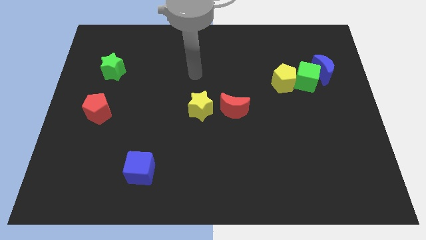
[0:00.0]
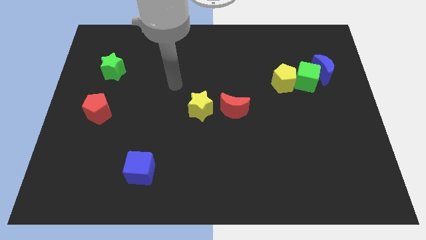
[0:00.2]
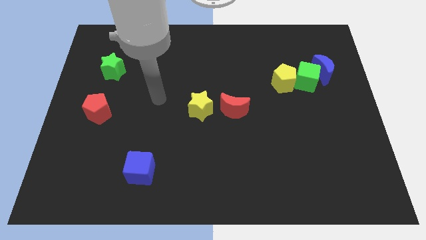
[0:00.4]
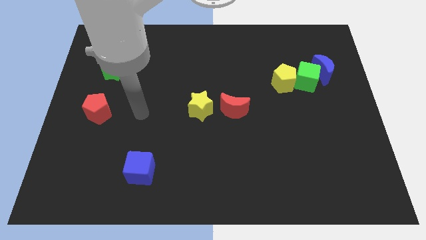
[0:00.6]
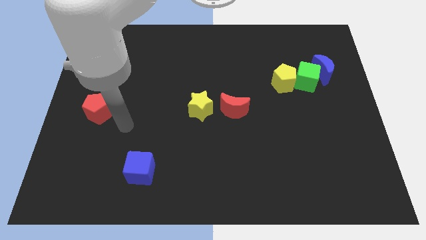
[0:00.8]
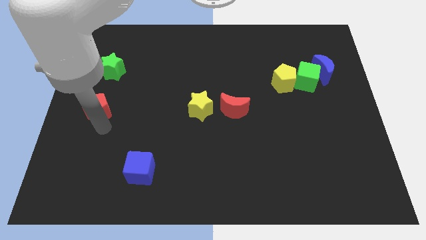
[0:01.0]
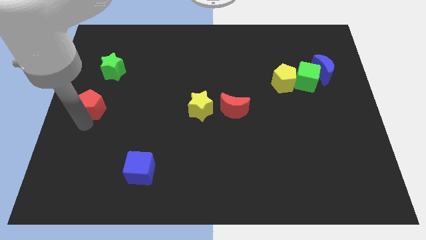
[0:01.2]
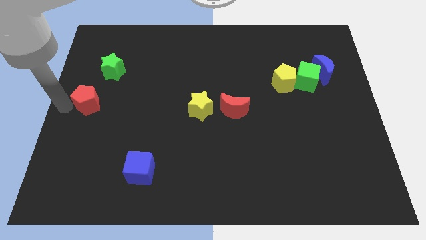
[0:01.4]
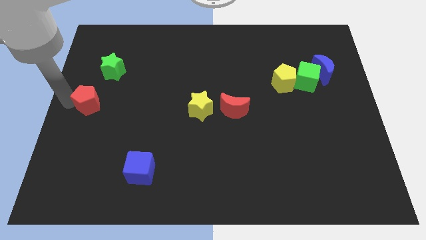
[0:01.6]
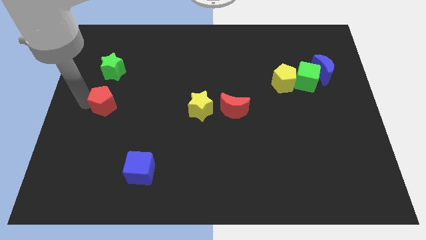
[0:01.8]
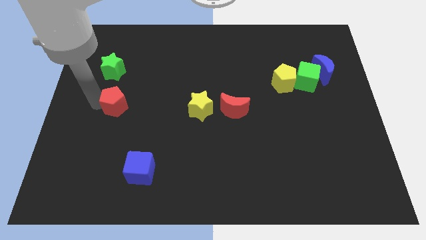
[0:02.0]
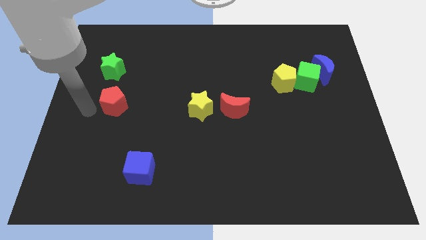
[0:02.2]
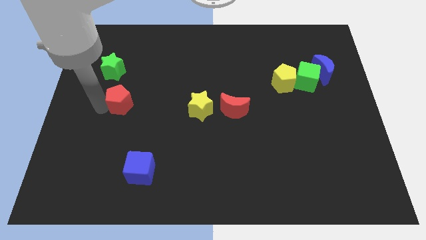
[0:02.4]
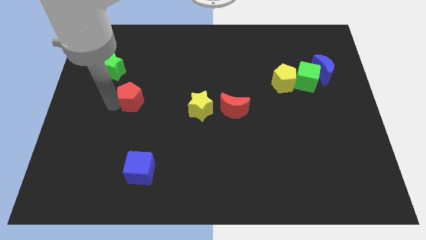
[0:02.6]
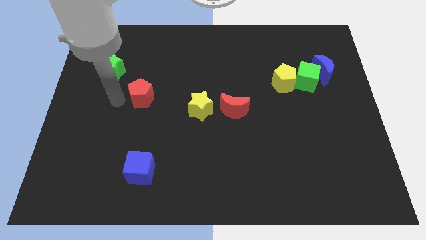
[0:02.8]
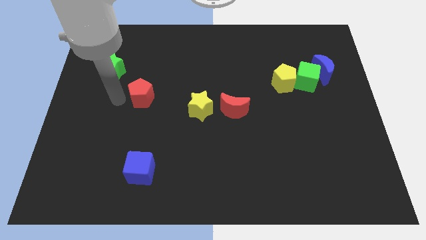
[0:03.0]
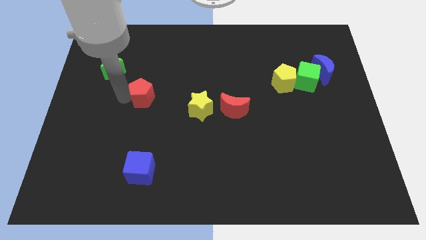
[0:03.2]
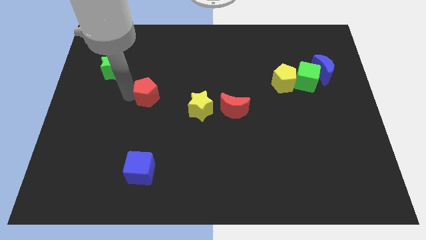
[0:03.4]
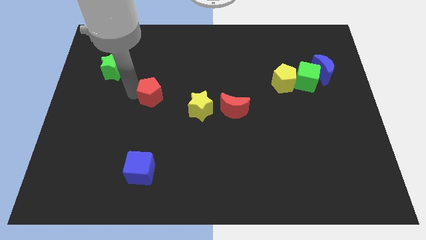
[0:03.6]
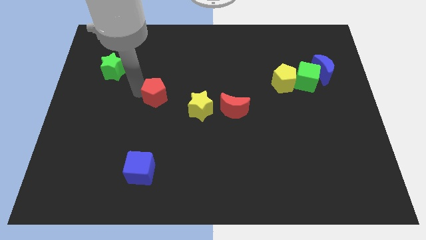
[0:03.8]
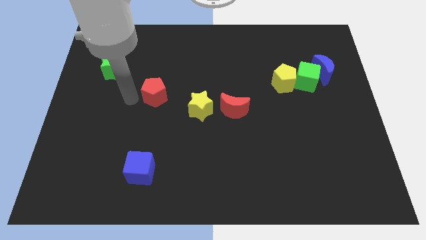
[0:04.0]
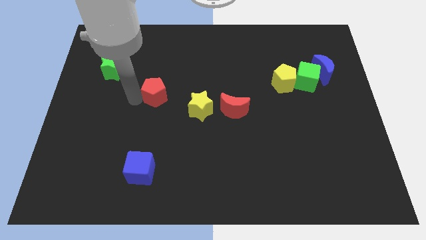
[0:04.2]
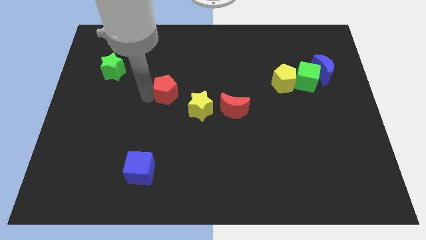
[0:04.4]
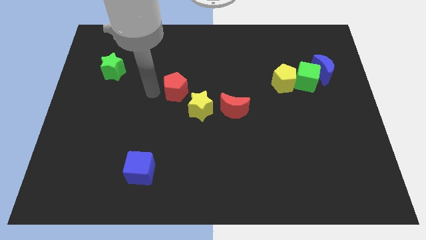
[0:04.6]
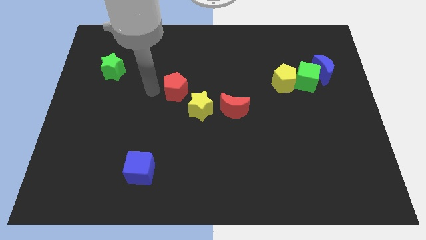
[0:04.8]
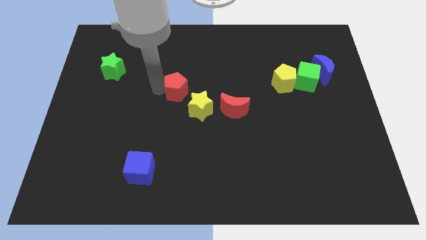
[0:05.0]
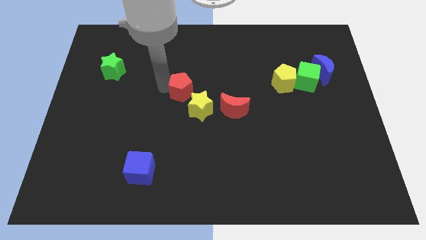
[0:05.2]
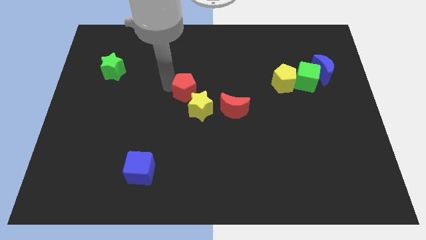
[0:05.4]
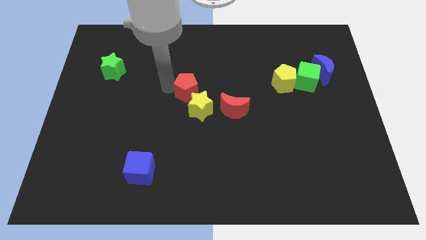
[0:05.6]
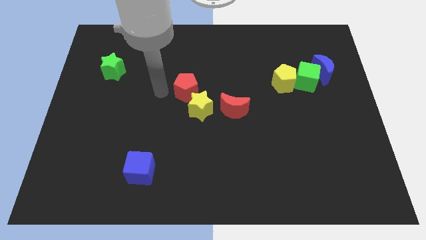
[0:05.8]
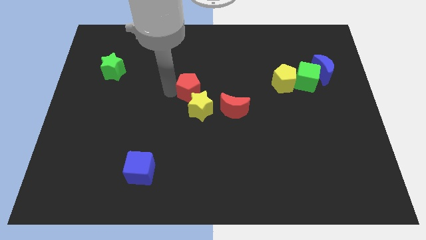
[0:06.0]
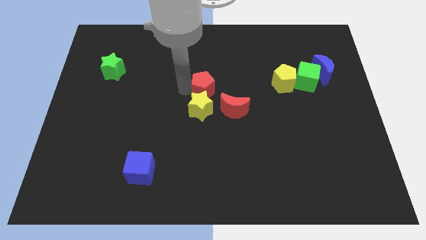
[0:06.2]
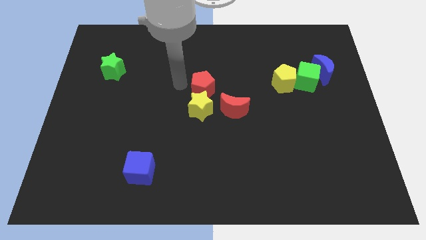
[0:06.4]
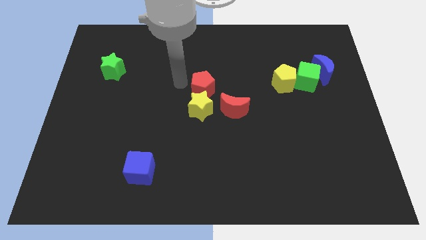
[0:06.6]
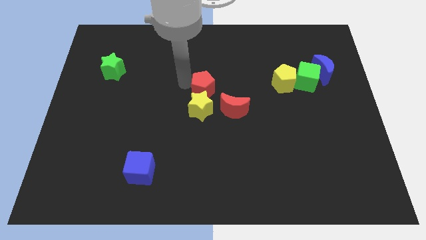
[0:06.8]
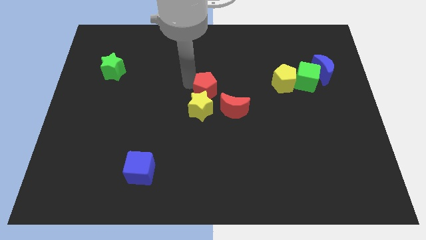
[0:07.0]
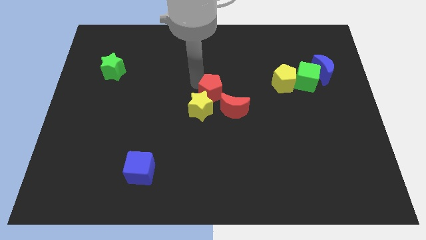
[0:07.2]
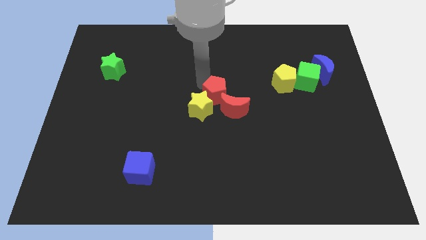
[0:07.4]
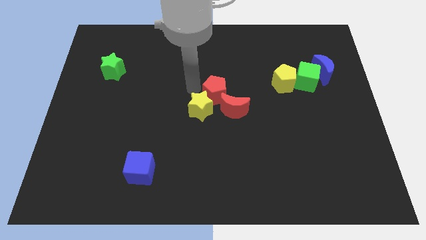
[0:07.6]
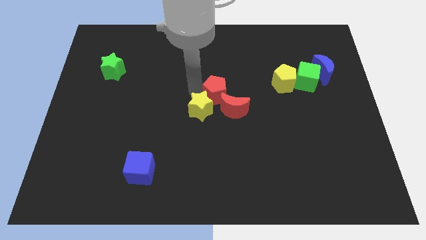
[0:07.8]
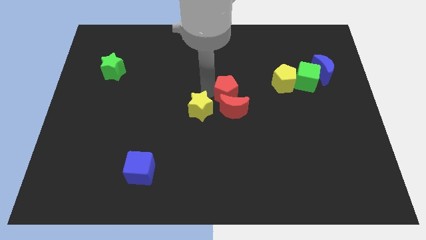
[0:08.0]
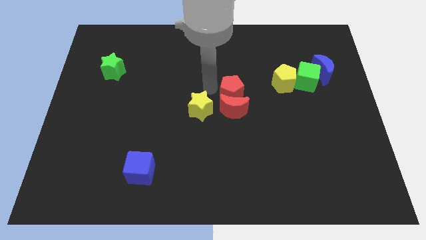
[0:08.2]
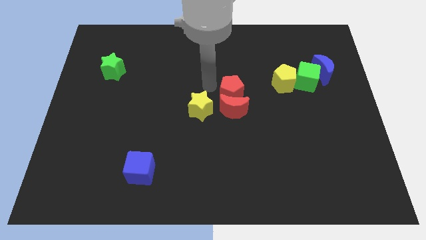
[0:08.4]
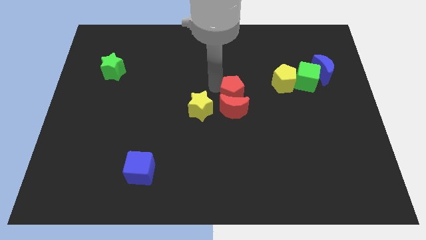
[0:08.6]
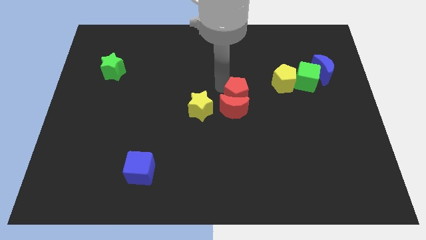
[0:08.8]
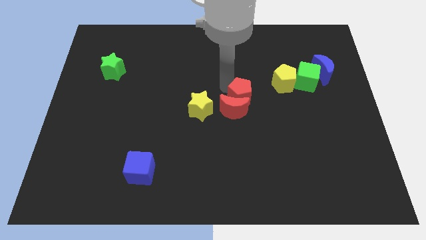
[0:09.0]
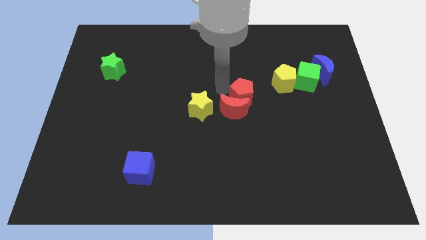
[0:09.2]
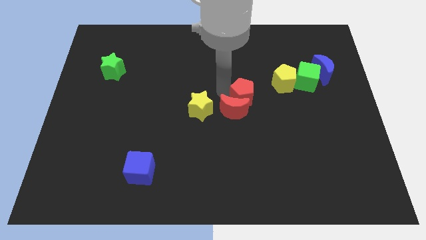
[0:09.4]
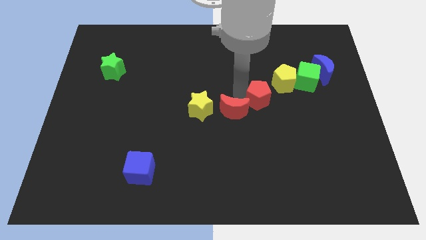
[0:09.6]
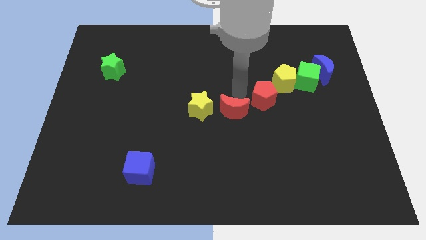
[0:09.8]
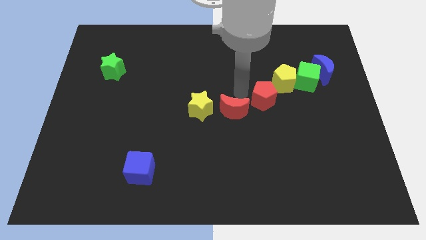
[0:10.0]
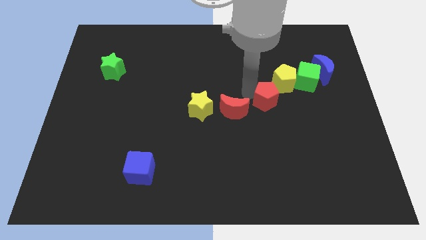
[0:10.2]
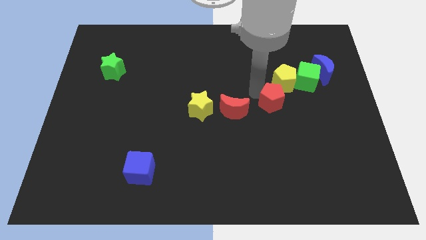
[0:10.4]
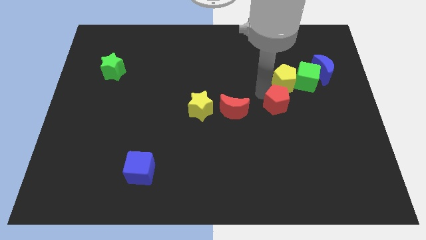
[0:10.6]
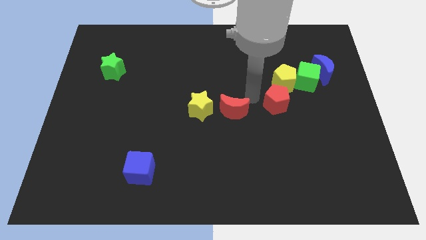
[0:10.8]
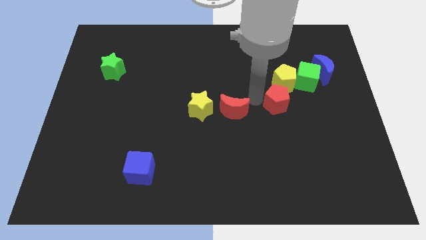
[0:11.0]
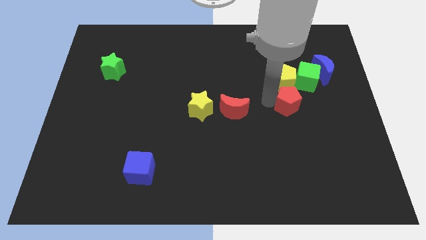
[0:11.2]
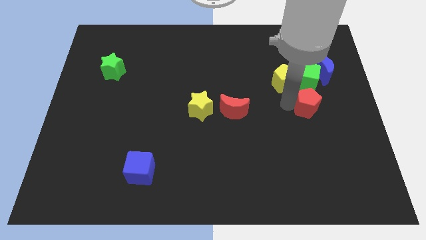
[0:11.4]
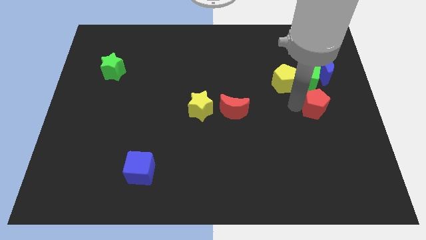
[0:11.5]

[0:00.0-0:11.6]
move the red pentagon to the bottom of the blue moon
